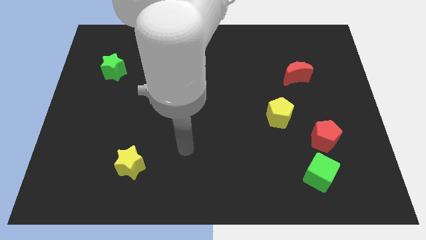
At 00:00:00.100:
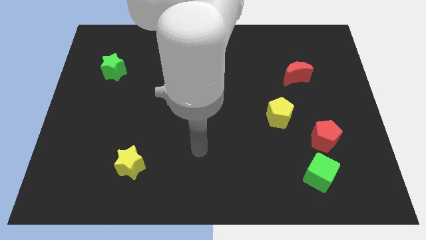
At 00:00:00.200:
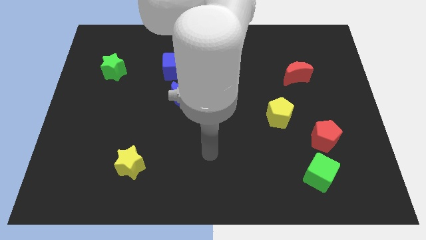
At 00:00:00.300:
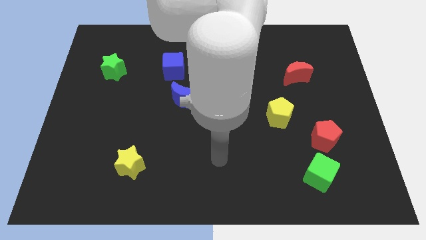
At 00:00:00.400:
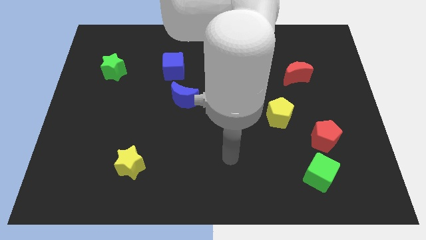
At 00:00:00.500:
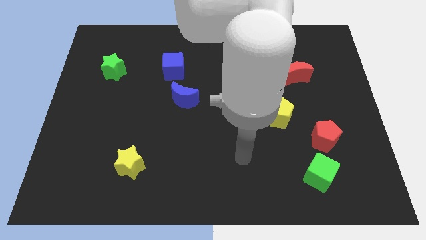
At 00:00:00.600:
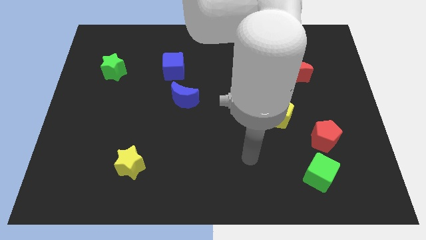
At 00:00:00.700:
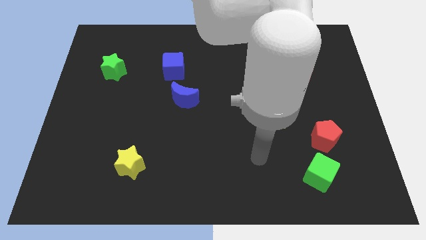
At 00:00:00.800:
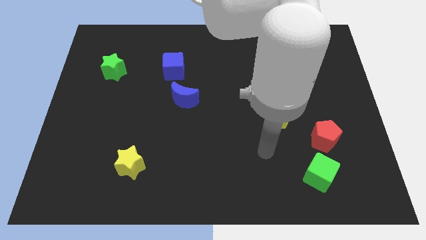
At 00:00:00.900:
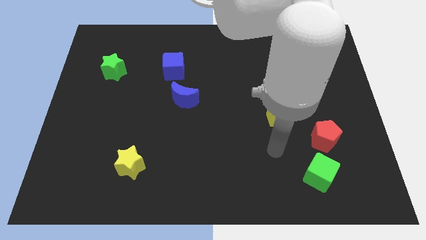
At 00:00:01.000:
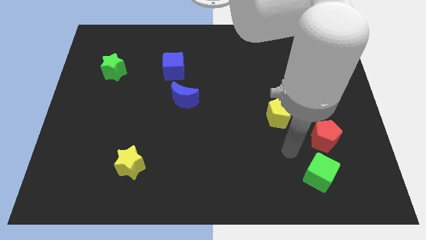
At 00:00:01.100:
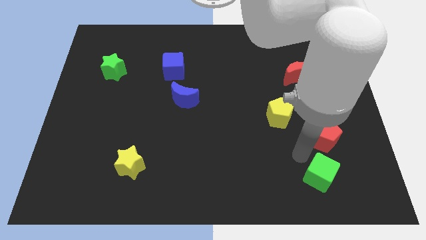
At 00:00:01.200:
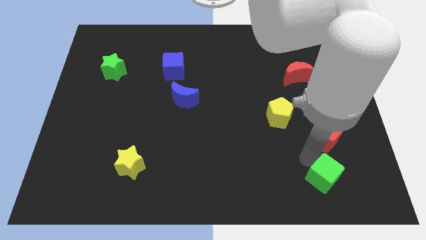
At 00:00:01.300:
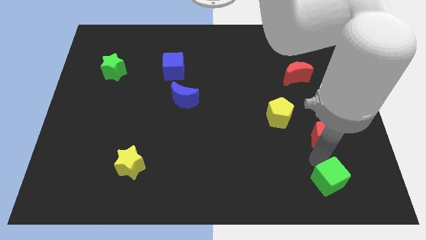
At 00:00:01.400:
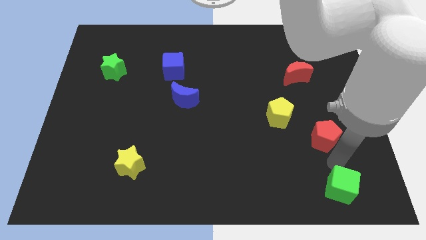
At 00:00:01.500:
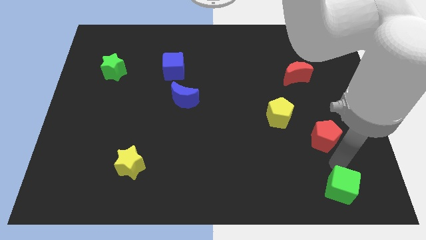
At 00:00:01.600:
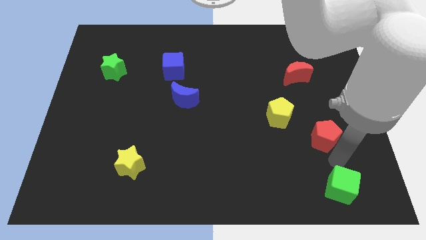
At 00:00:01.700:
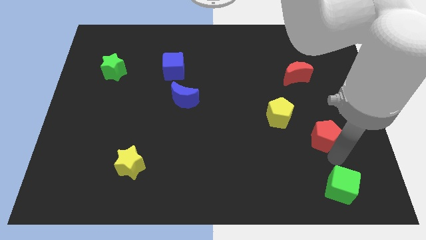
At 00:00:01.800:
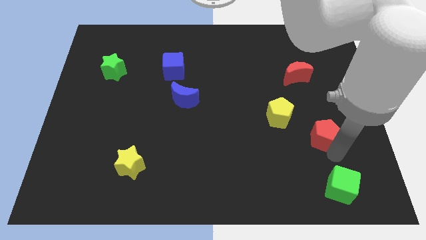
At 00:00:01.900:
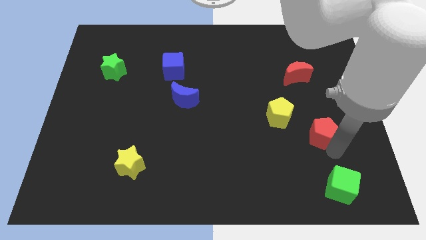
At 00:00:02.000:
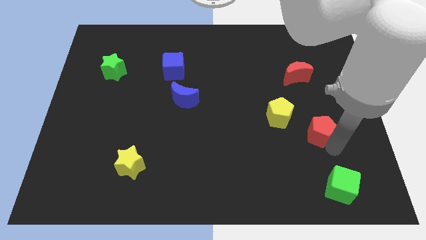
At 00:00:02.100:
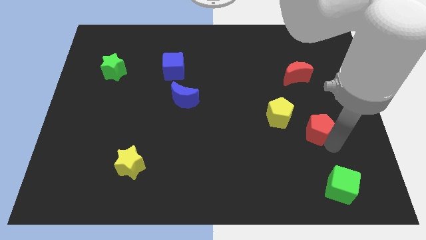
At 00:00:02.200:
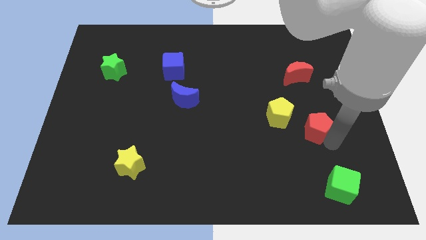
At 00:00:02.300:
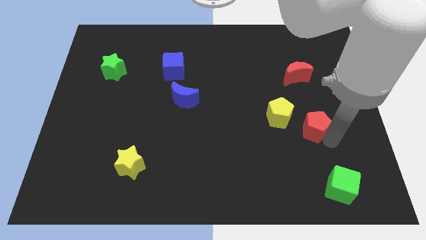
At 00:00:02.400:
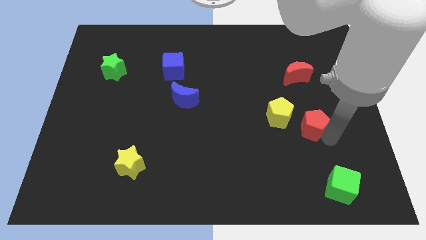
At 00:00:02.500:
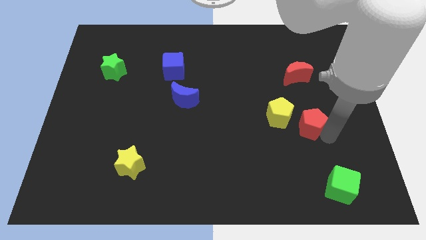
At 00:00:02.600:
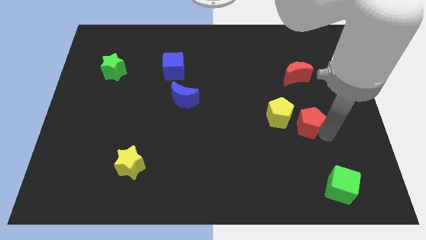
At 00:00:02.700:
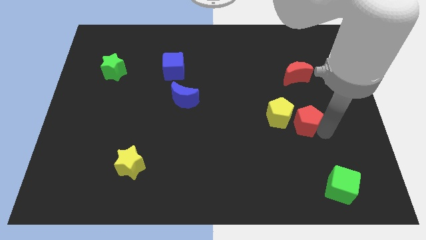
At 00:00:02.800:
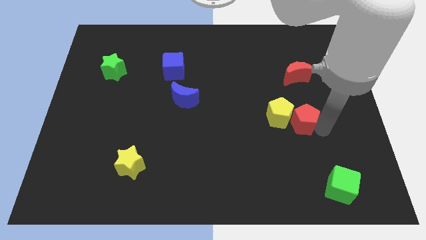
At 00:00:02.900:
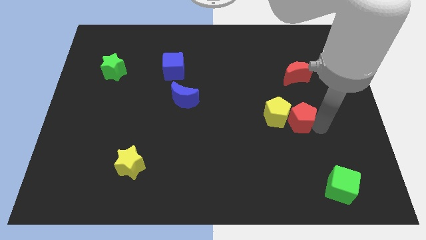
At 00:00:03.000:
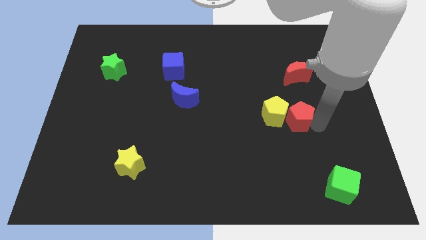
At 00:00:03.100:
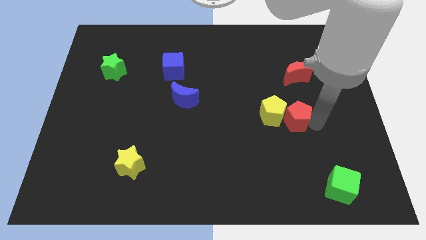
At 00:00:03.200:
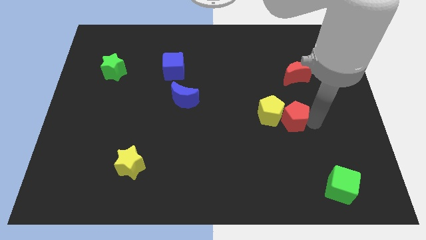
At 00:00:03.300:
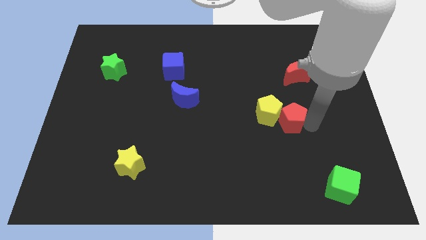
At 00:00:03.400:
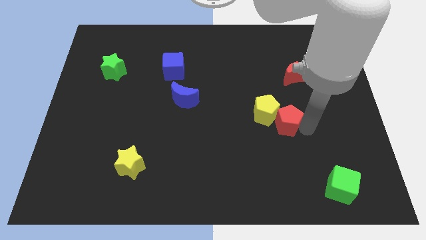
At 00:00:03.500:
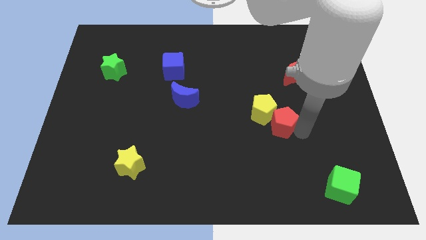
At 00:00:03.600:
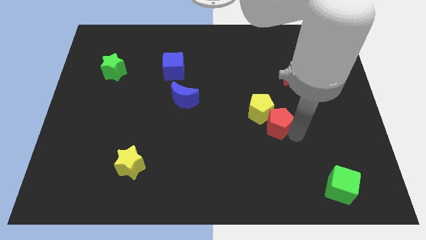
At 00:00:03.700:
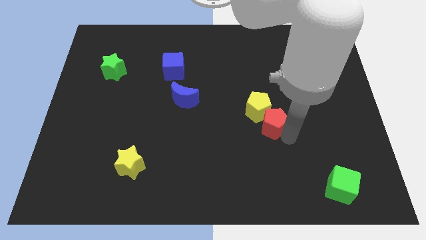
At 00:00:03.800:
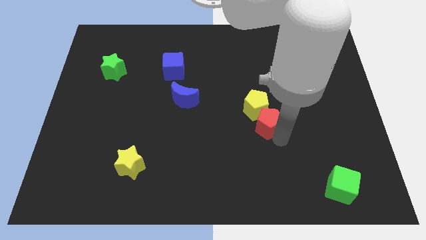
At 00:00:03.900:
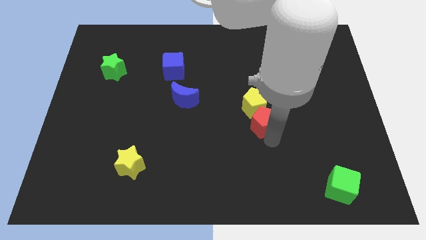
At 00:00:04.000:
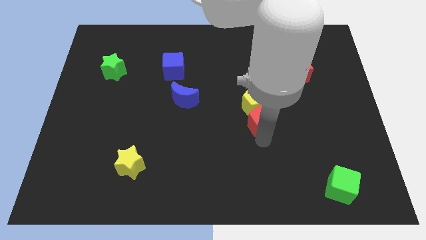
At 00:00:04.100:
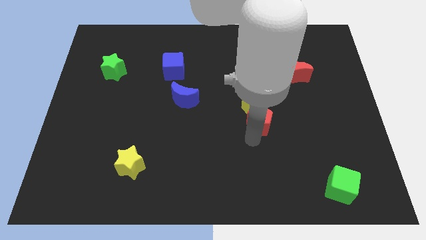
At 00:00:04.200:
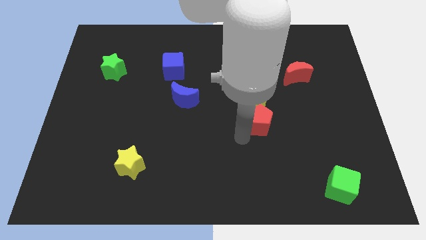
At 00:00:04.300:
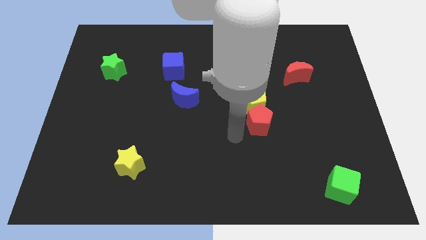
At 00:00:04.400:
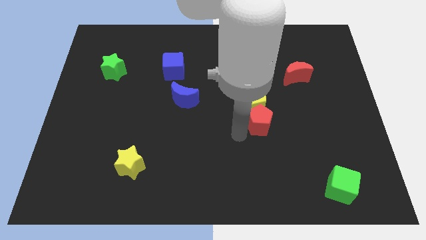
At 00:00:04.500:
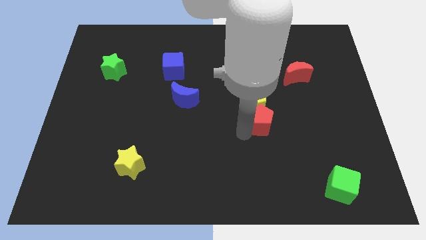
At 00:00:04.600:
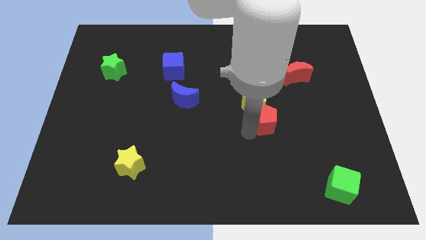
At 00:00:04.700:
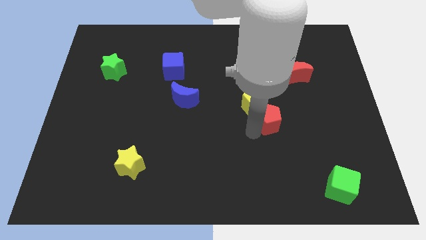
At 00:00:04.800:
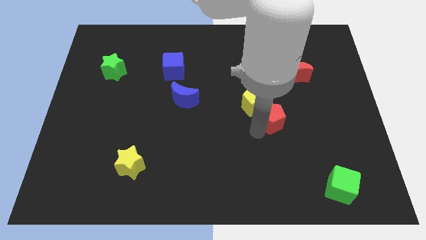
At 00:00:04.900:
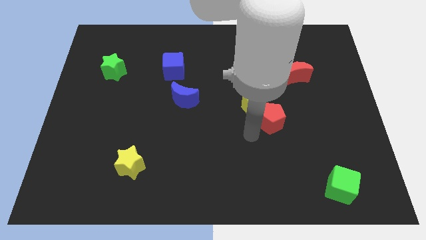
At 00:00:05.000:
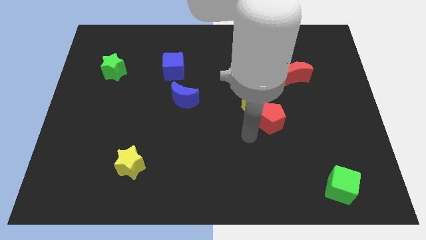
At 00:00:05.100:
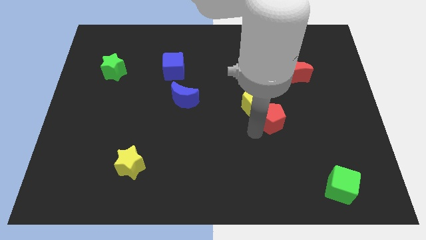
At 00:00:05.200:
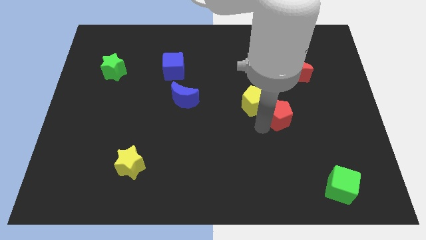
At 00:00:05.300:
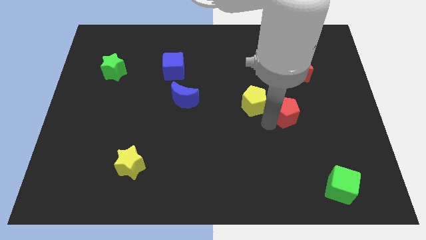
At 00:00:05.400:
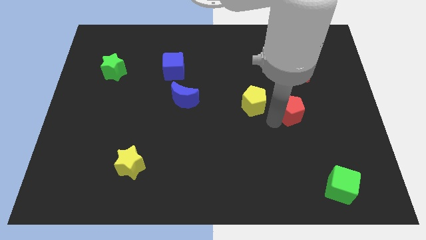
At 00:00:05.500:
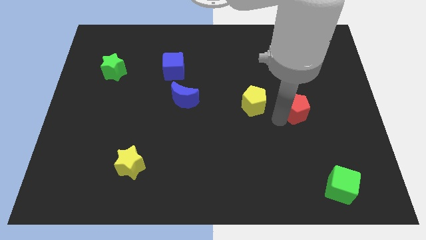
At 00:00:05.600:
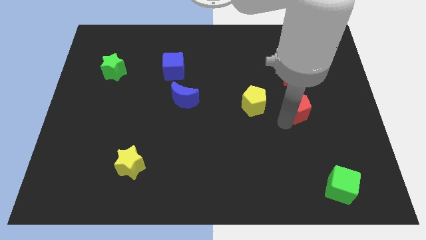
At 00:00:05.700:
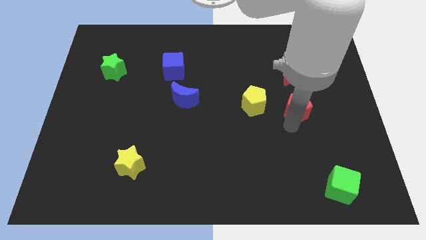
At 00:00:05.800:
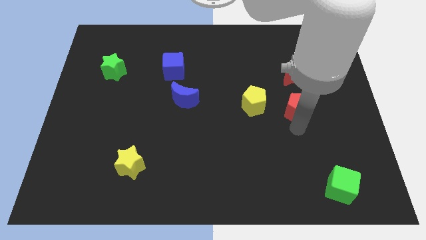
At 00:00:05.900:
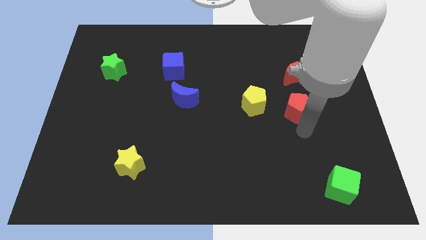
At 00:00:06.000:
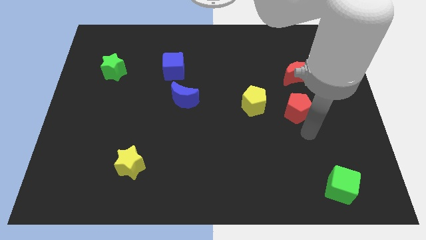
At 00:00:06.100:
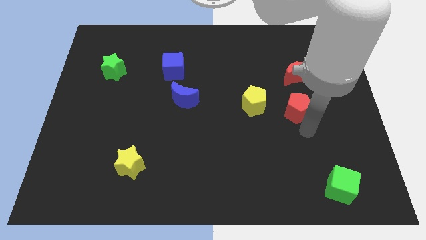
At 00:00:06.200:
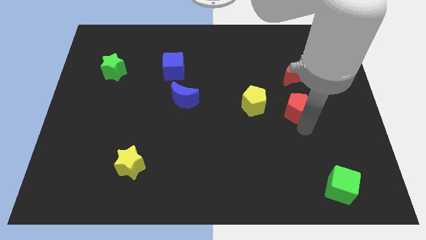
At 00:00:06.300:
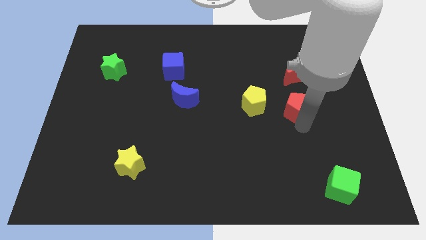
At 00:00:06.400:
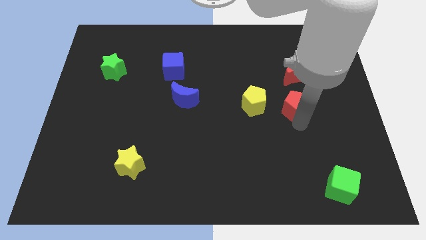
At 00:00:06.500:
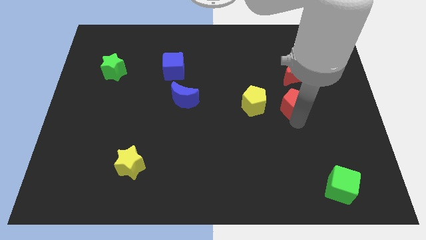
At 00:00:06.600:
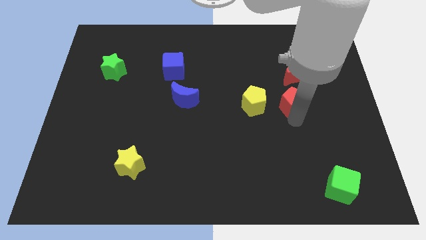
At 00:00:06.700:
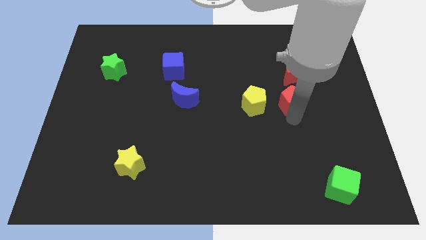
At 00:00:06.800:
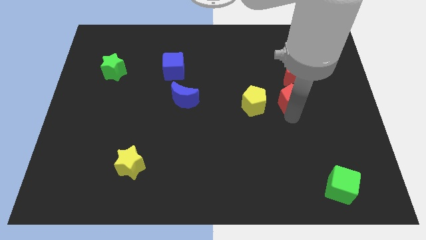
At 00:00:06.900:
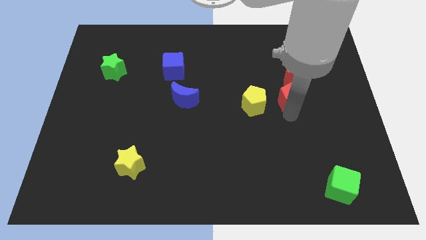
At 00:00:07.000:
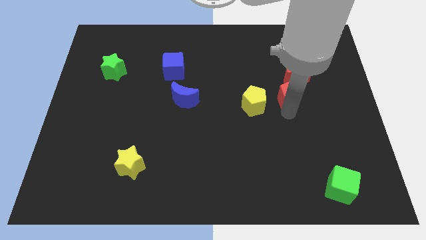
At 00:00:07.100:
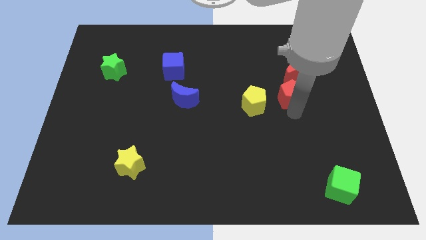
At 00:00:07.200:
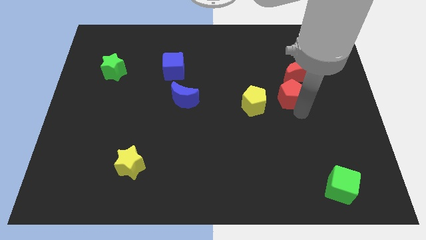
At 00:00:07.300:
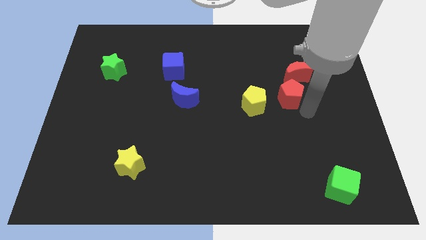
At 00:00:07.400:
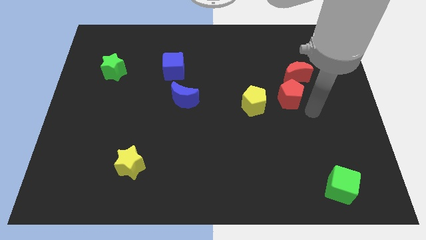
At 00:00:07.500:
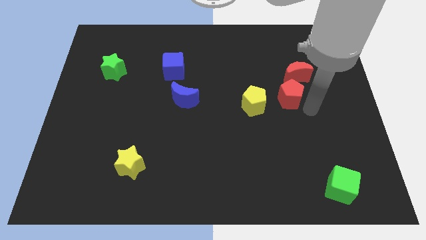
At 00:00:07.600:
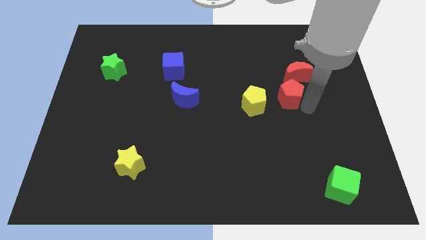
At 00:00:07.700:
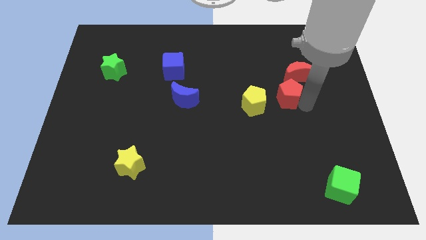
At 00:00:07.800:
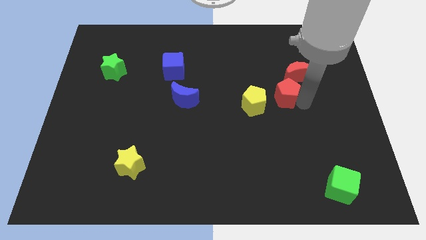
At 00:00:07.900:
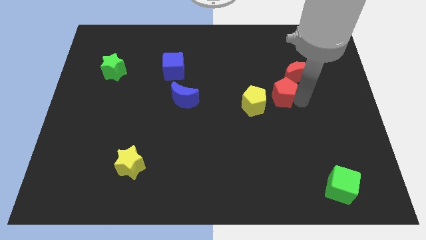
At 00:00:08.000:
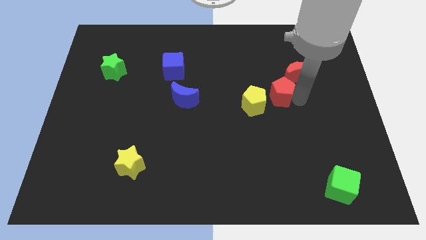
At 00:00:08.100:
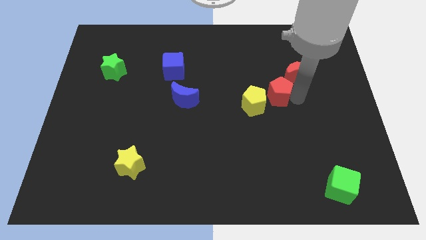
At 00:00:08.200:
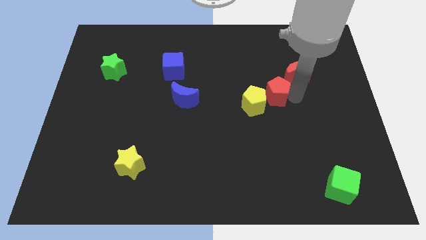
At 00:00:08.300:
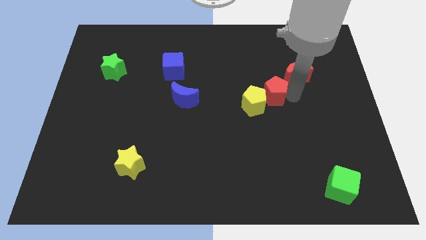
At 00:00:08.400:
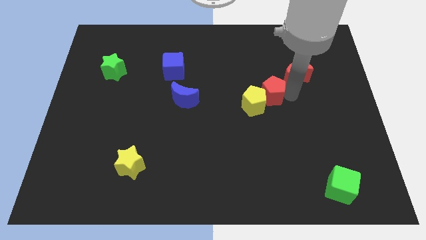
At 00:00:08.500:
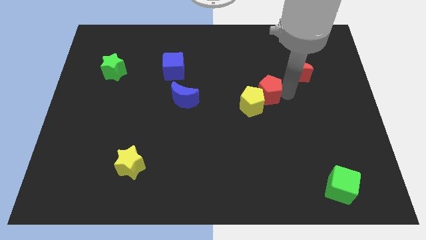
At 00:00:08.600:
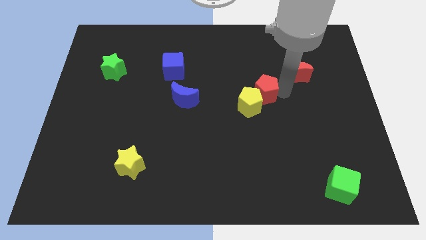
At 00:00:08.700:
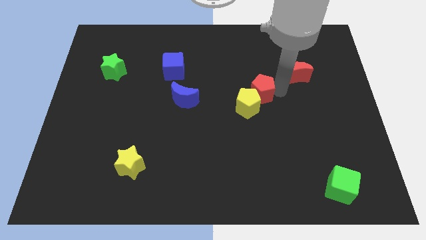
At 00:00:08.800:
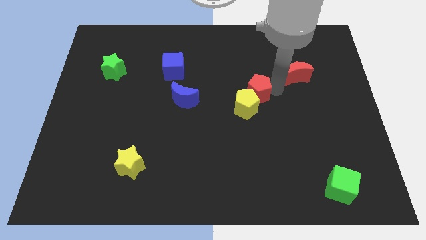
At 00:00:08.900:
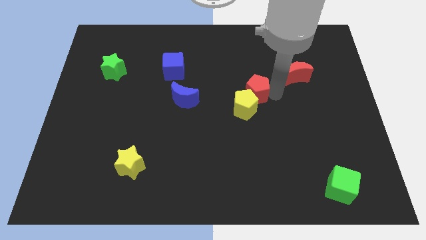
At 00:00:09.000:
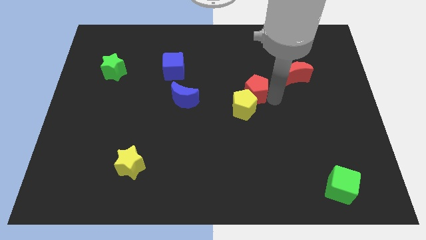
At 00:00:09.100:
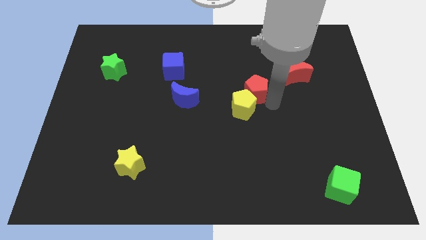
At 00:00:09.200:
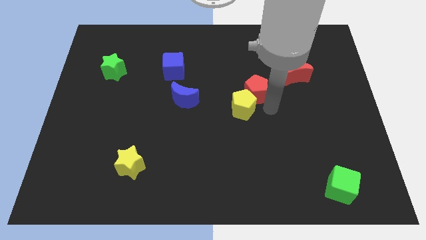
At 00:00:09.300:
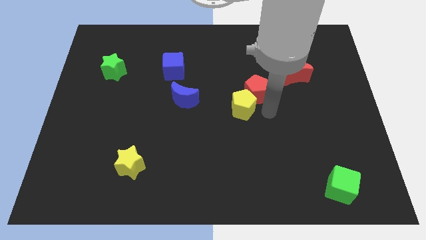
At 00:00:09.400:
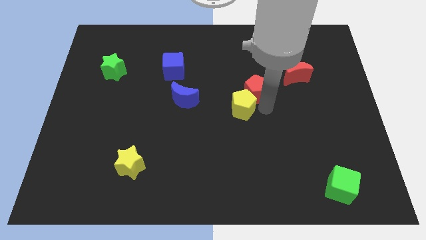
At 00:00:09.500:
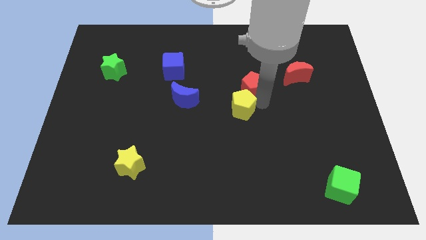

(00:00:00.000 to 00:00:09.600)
push the red pentagon diagonally up and left
